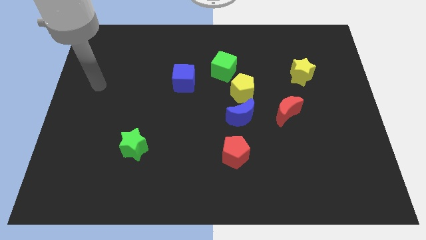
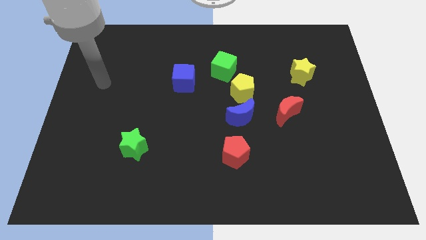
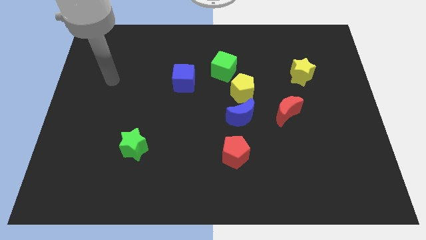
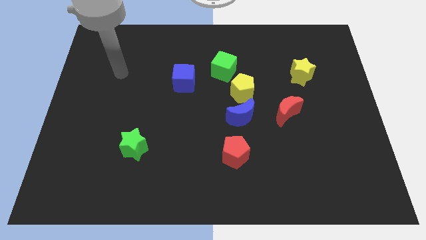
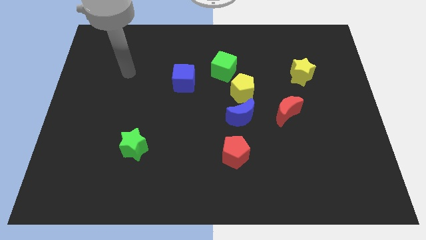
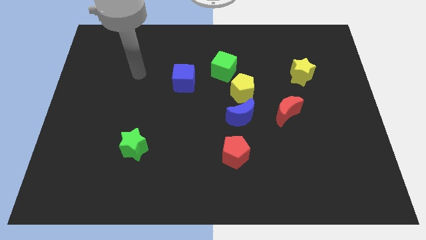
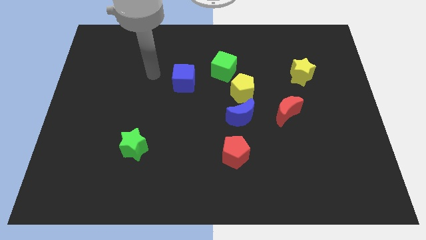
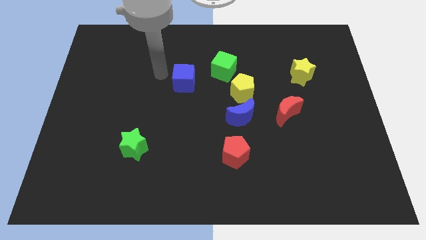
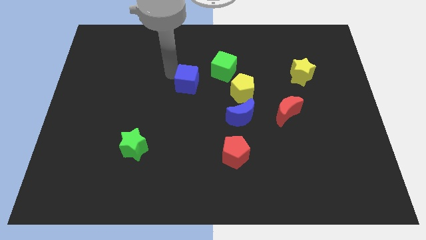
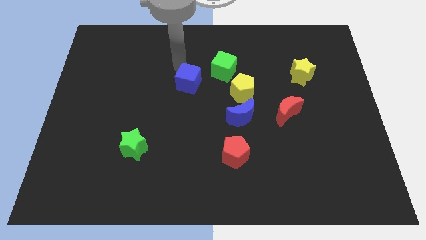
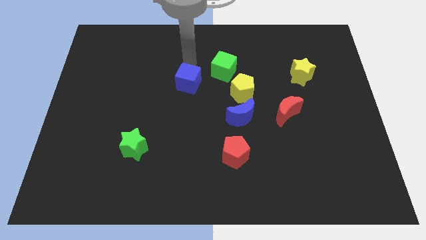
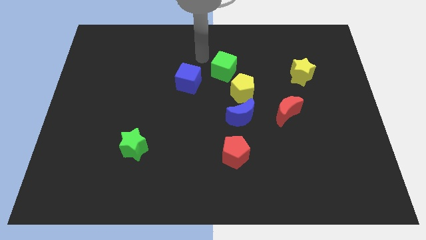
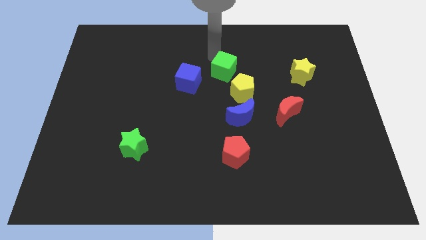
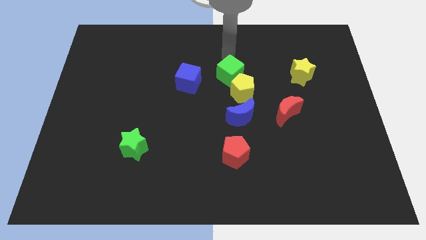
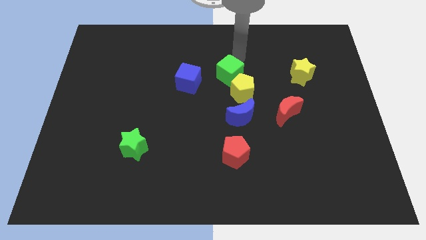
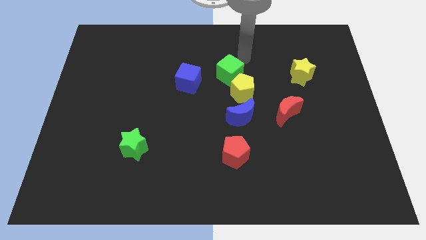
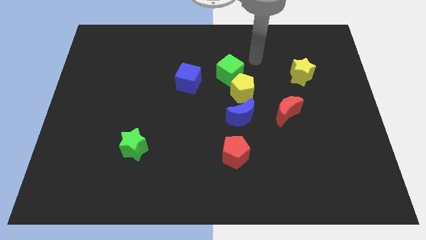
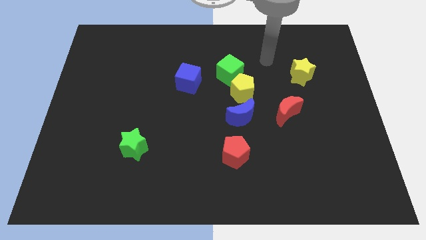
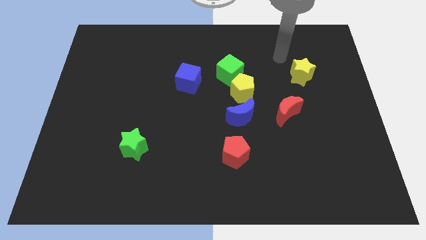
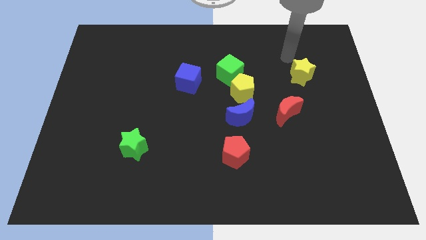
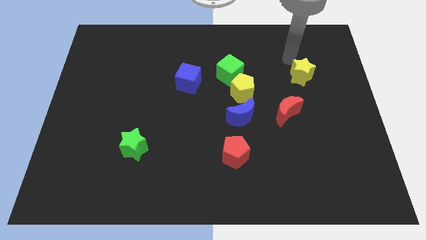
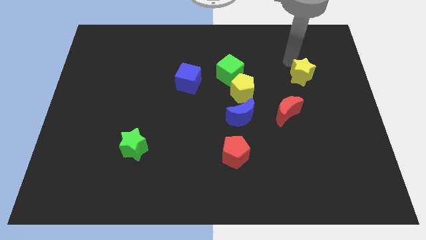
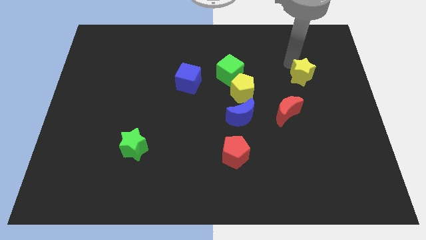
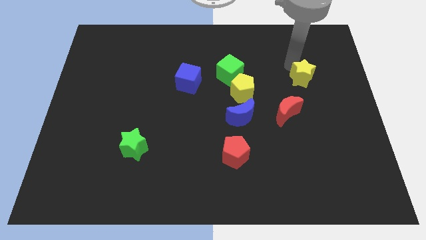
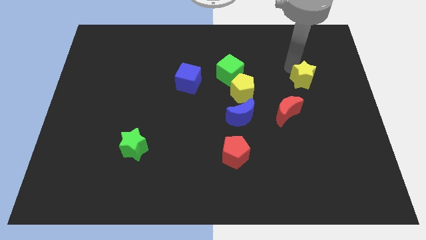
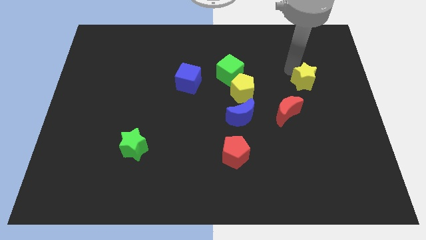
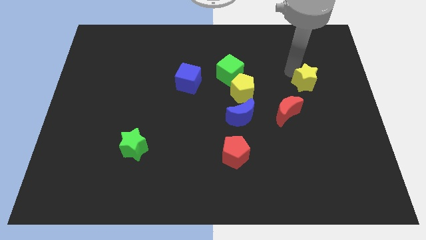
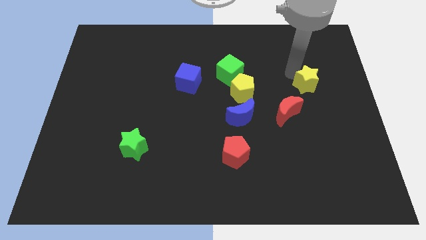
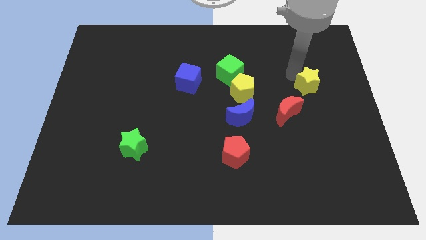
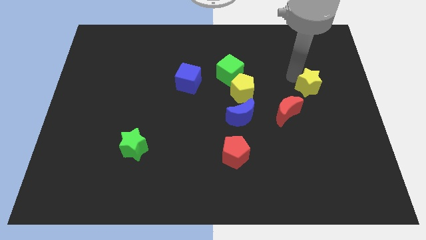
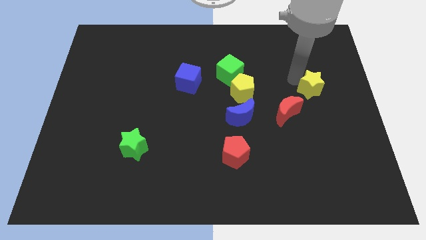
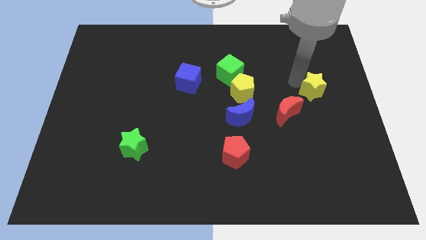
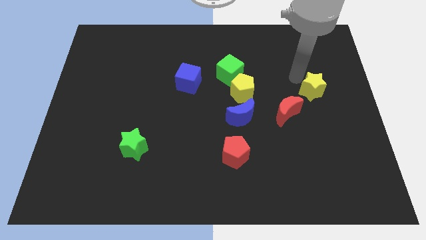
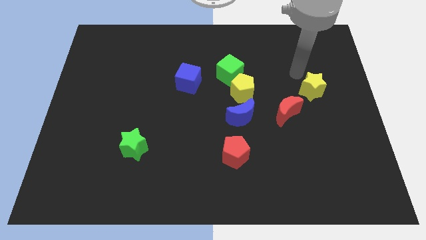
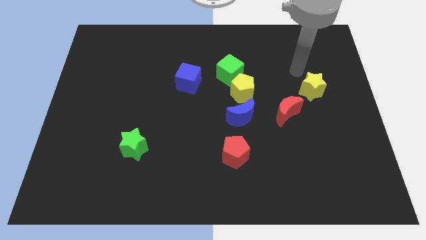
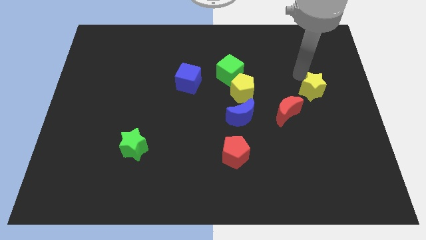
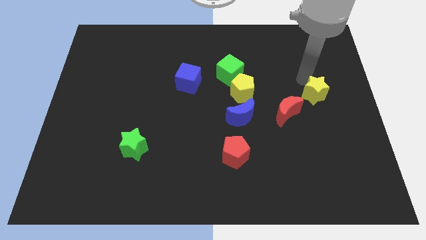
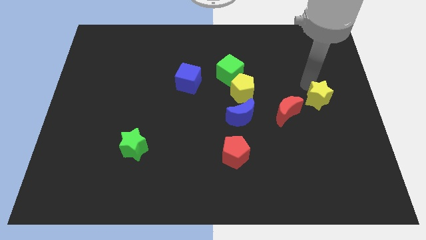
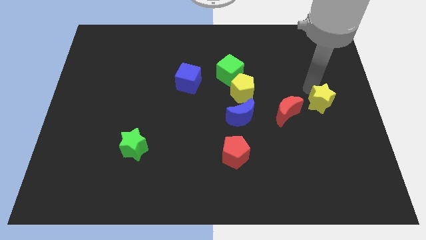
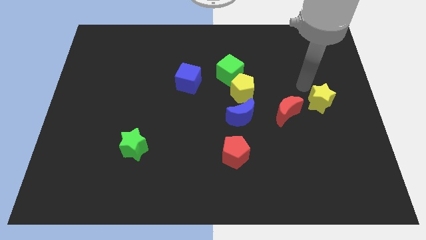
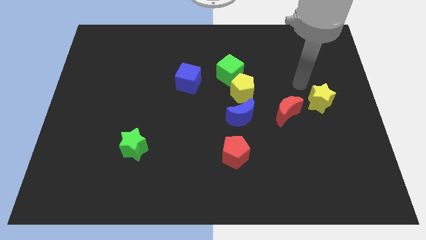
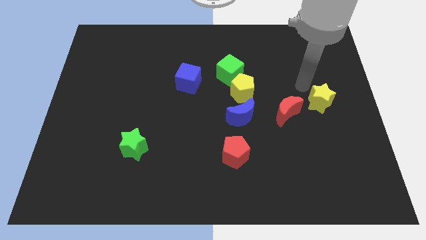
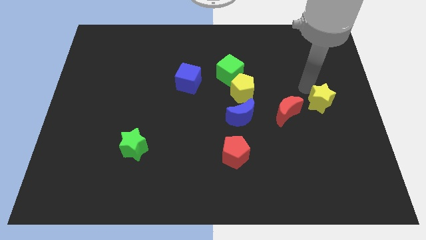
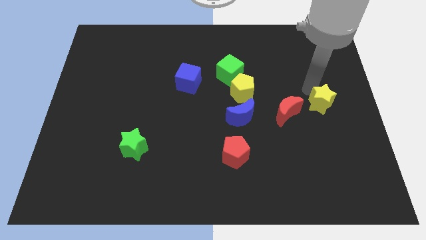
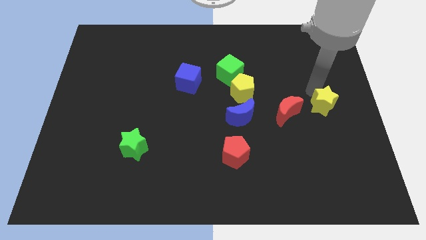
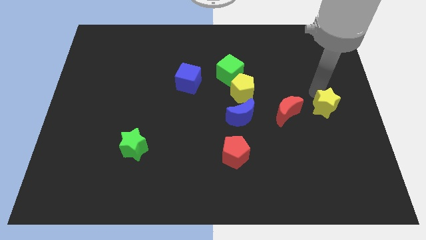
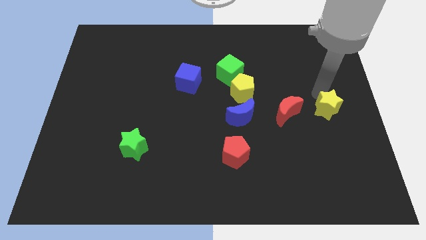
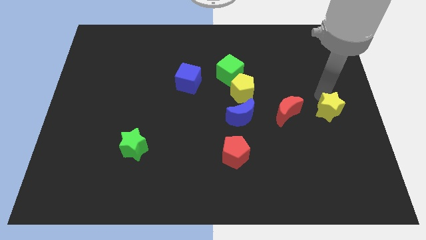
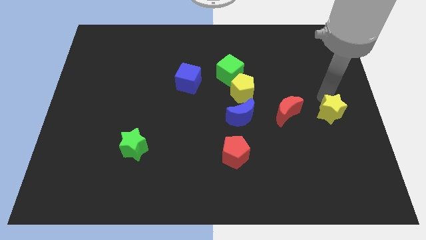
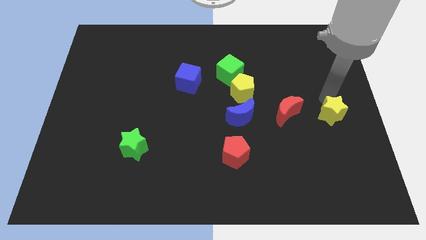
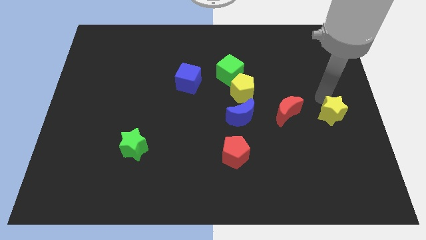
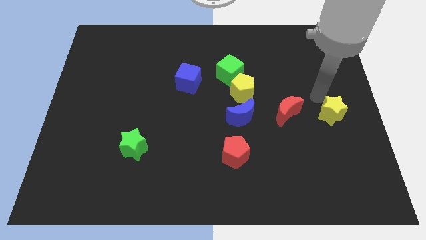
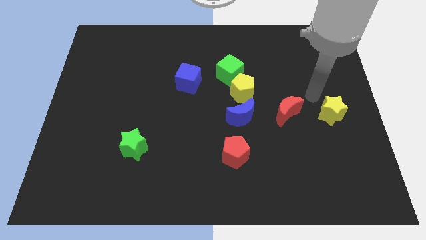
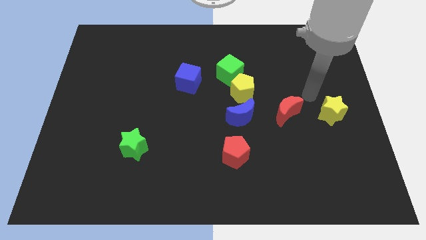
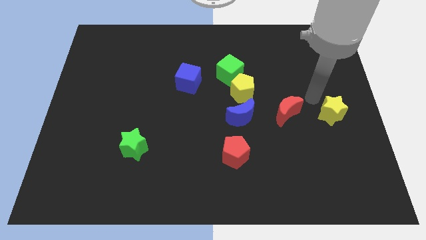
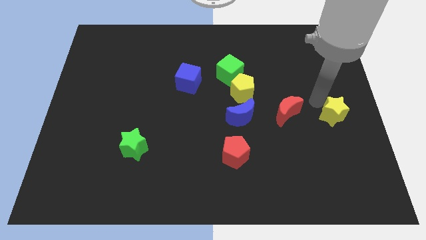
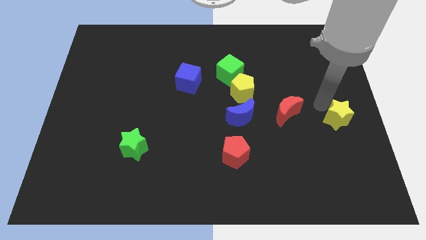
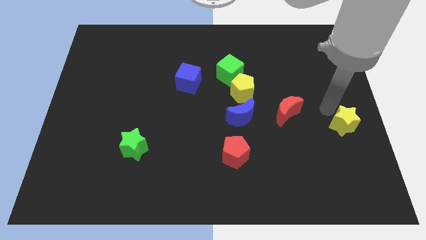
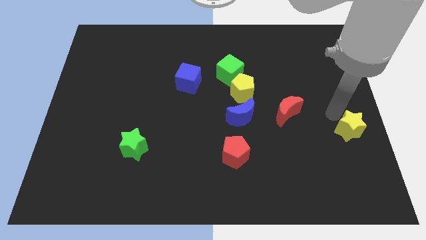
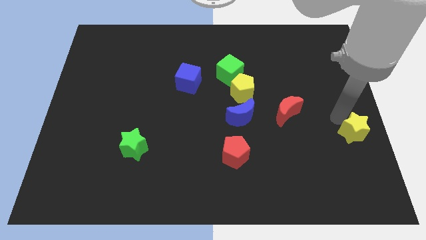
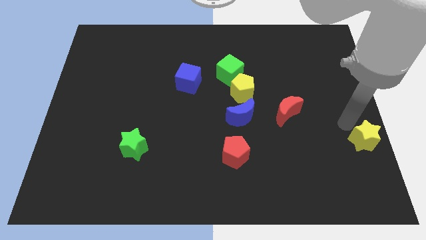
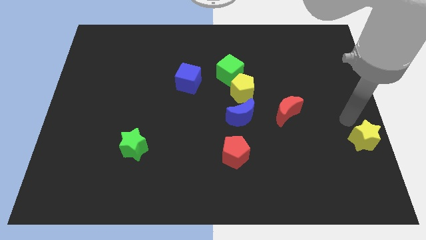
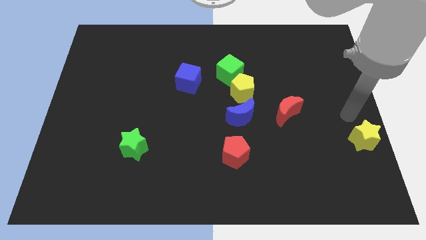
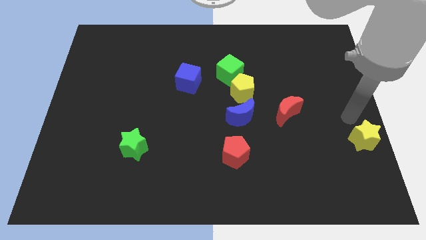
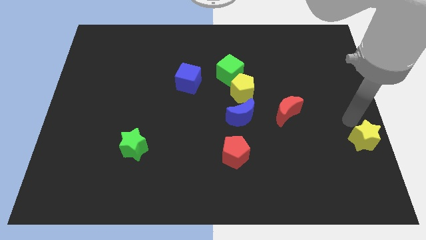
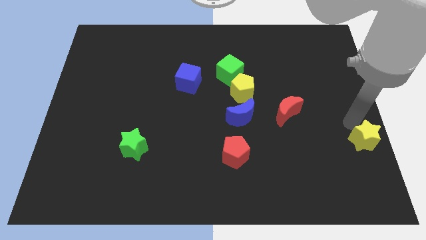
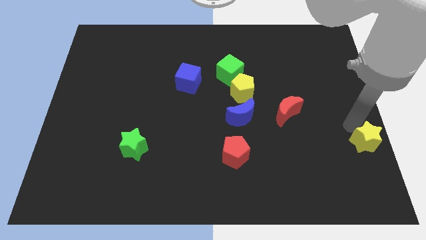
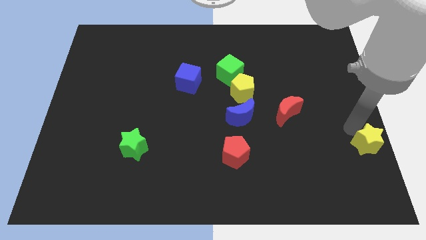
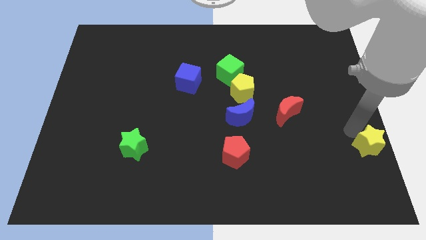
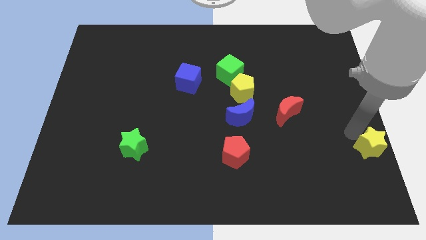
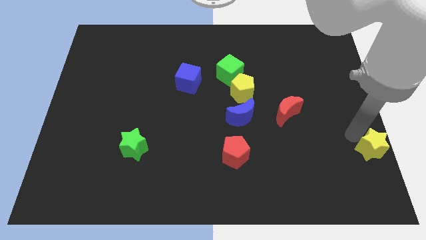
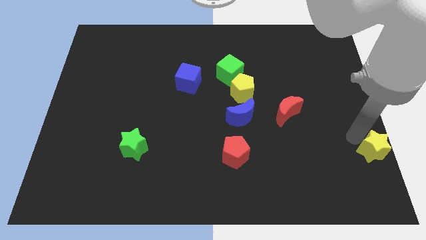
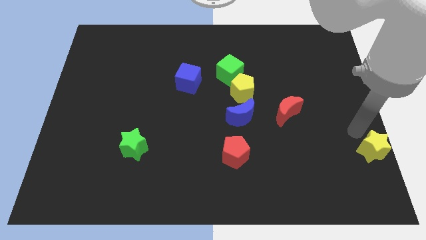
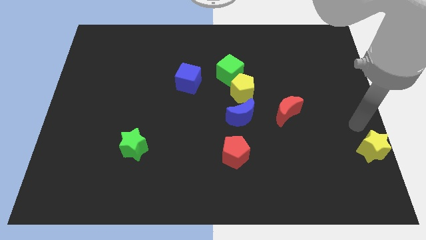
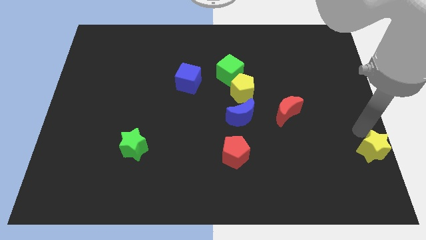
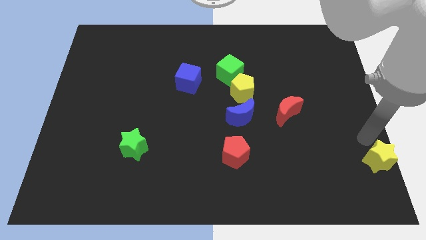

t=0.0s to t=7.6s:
move the yellow star to the lower right corner
